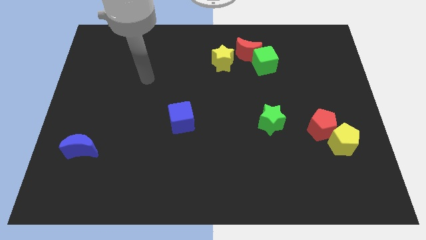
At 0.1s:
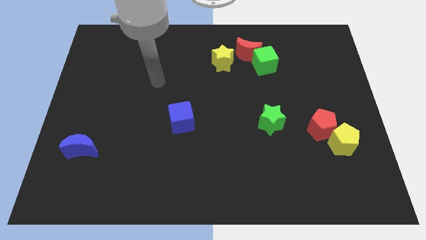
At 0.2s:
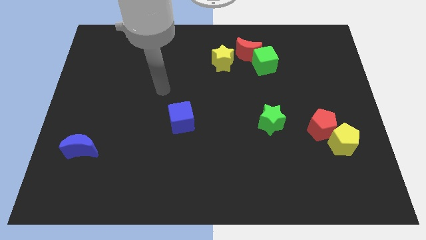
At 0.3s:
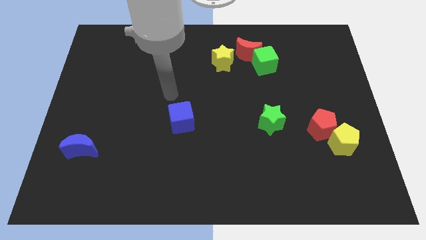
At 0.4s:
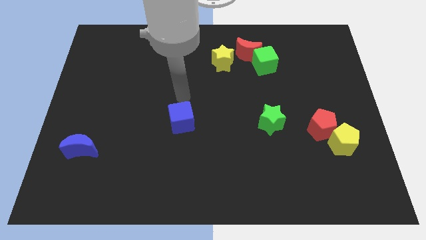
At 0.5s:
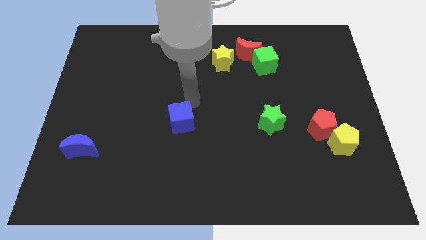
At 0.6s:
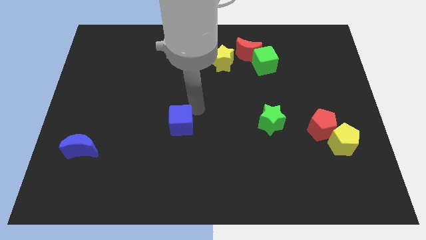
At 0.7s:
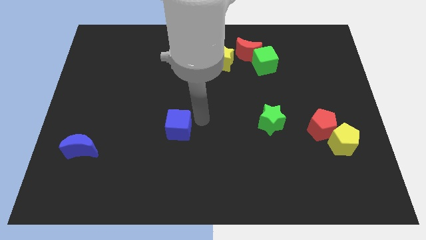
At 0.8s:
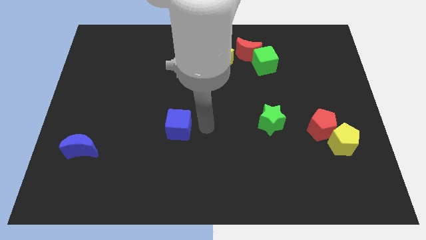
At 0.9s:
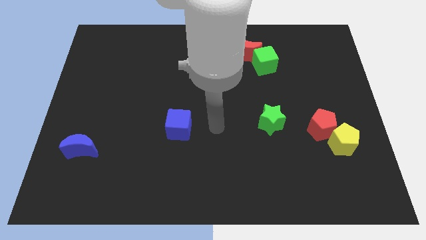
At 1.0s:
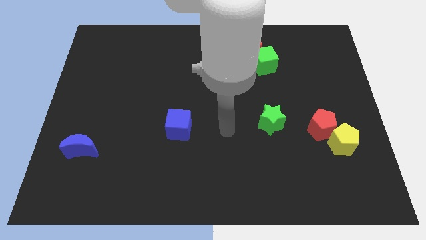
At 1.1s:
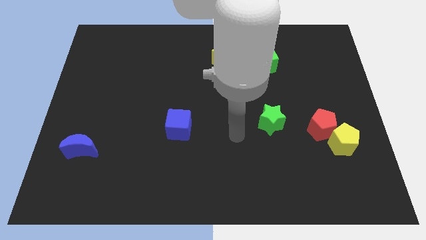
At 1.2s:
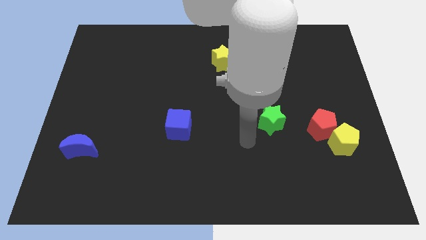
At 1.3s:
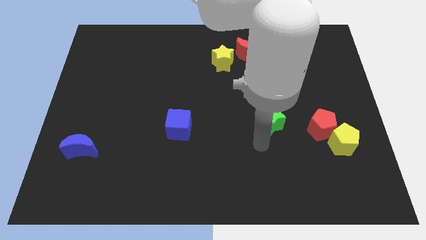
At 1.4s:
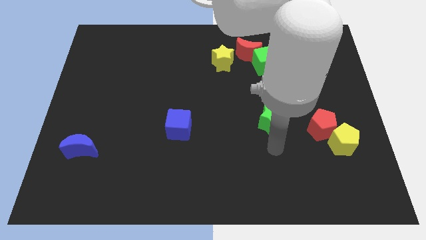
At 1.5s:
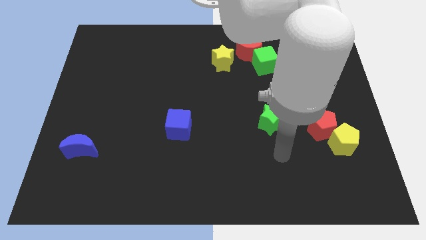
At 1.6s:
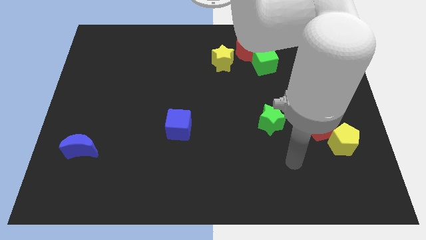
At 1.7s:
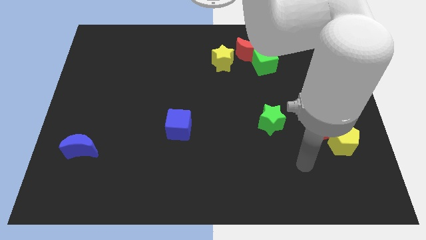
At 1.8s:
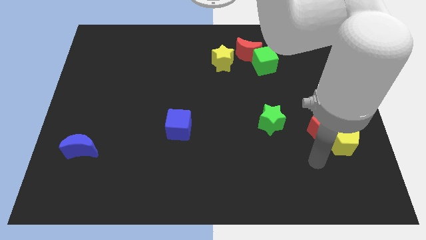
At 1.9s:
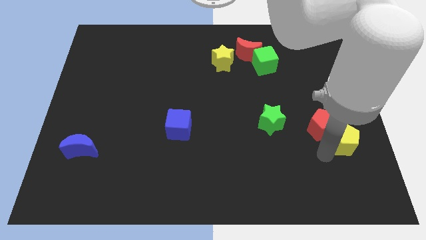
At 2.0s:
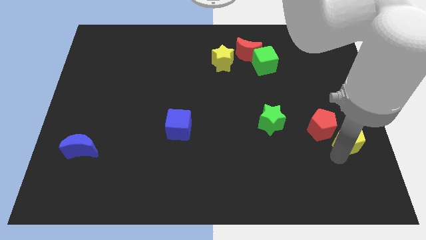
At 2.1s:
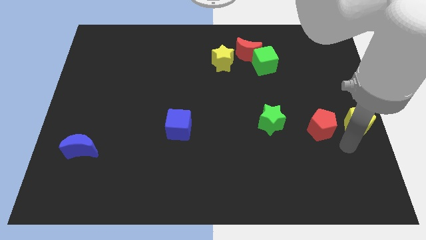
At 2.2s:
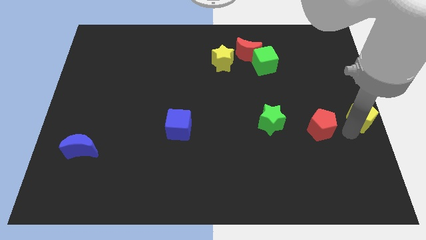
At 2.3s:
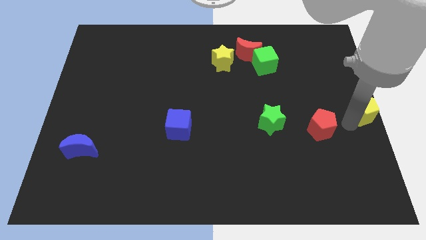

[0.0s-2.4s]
separate the red pentagon from the yellow pentagon

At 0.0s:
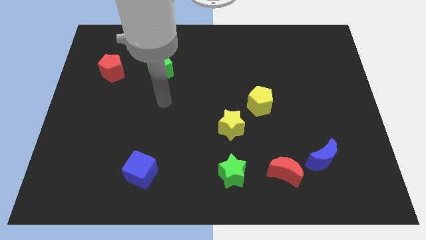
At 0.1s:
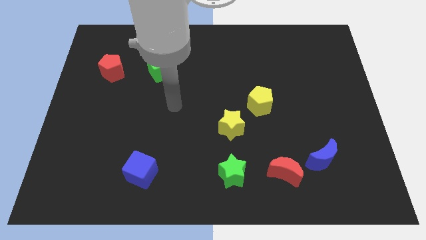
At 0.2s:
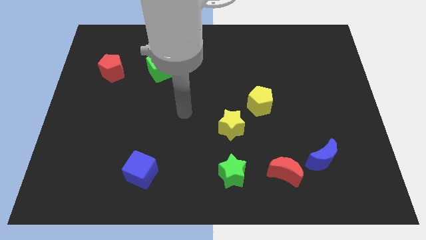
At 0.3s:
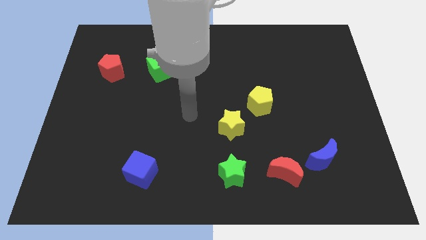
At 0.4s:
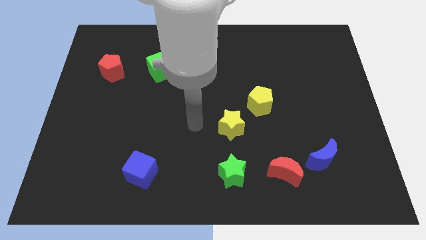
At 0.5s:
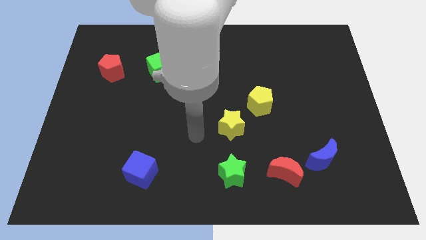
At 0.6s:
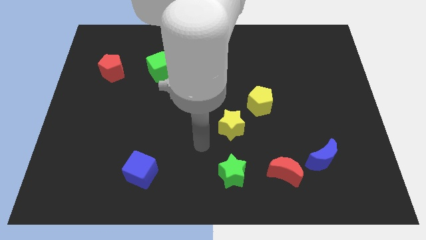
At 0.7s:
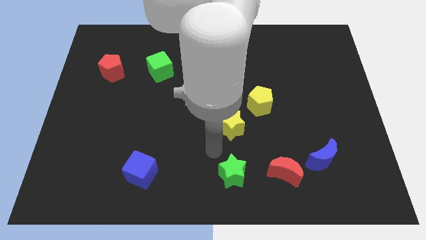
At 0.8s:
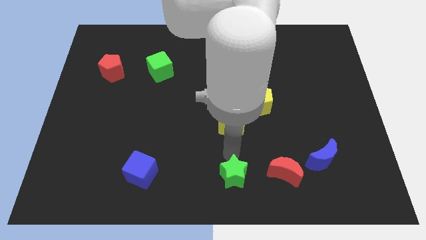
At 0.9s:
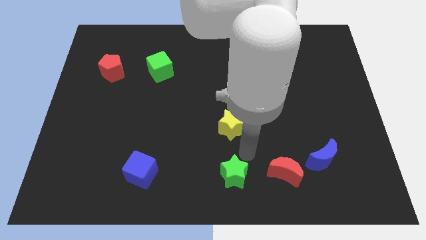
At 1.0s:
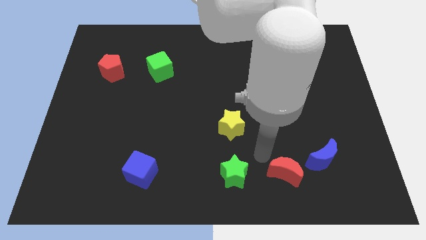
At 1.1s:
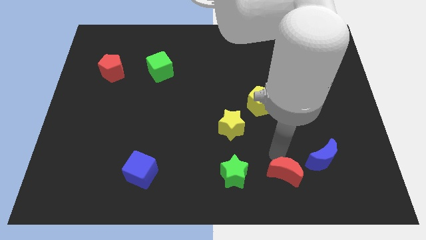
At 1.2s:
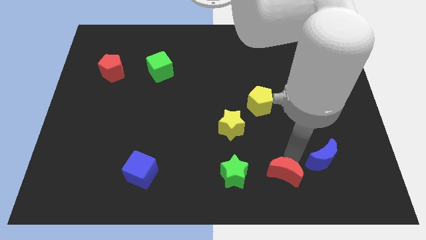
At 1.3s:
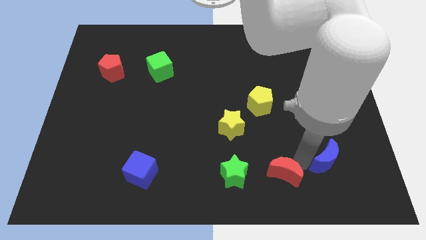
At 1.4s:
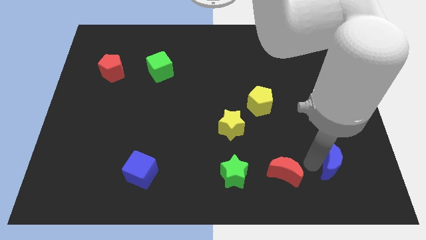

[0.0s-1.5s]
move the red moon away from the blue moon

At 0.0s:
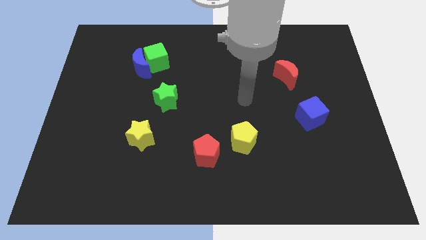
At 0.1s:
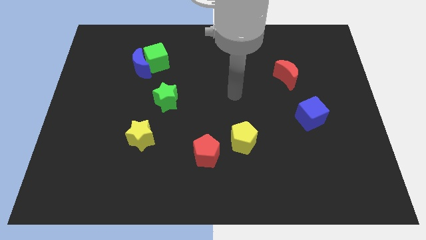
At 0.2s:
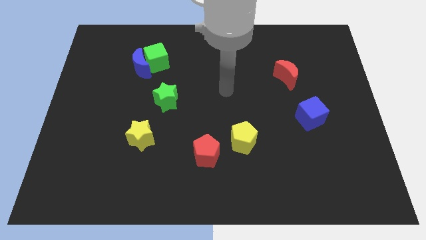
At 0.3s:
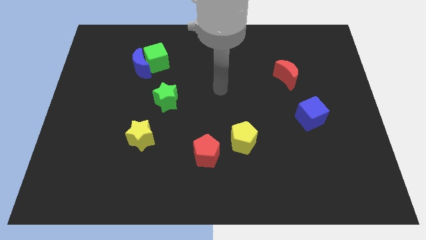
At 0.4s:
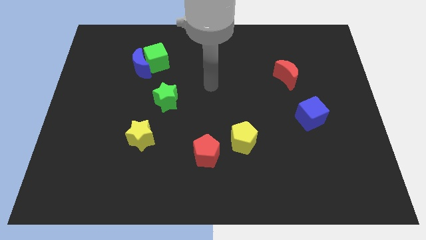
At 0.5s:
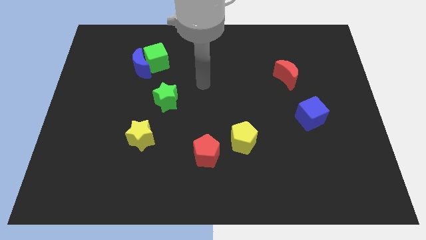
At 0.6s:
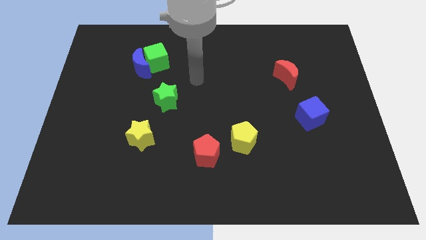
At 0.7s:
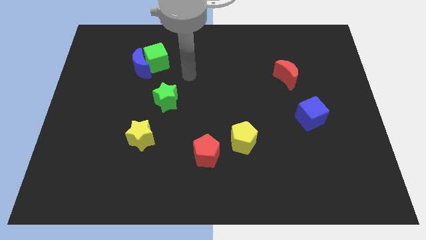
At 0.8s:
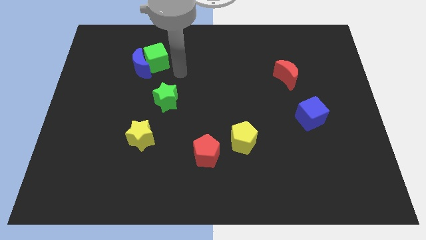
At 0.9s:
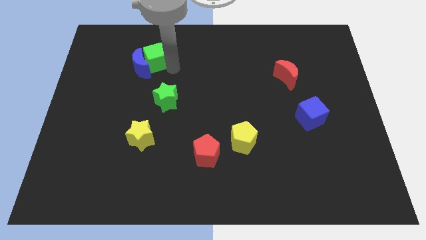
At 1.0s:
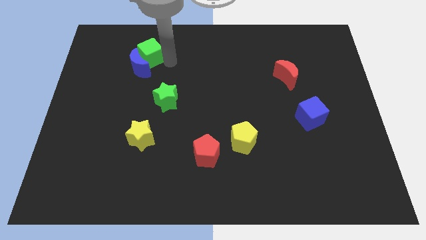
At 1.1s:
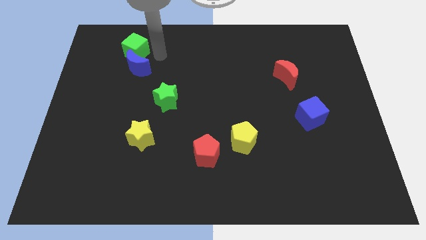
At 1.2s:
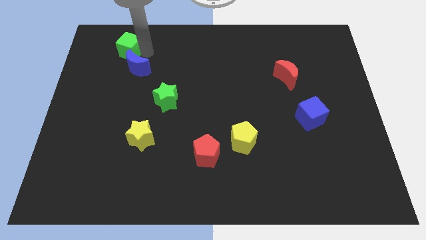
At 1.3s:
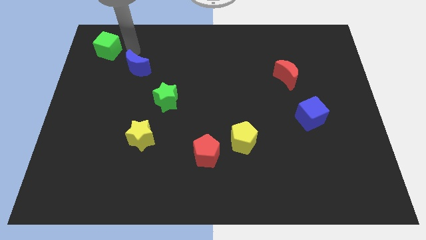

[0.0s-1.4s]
pull the blue moon apart from the green cube

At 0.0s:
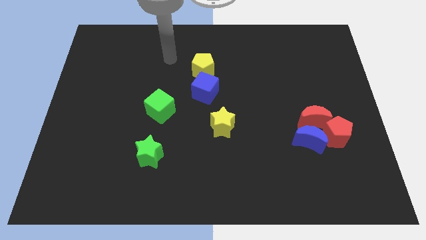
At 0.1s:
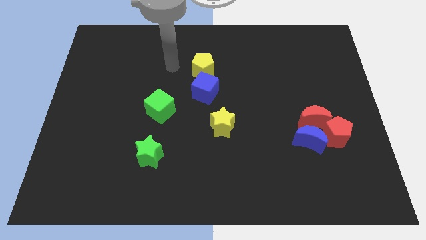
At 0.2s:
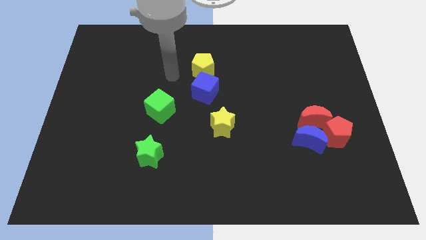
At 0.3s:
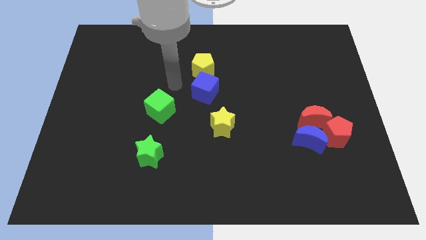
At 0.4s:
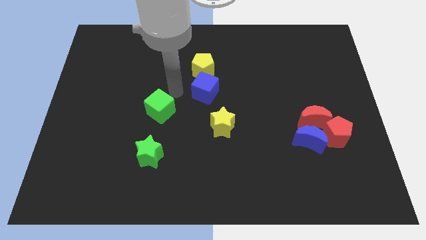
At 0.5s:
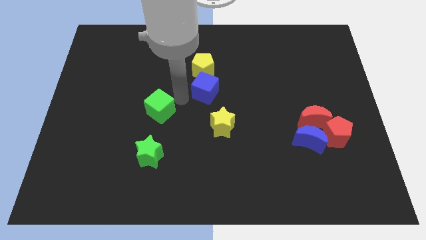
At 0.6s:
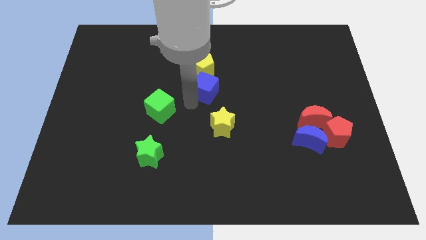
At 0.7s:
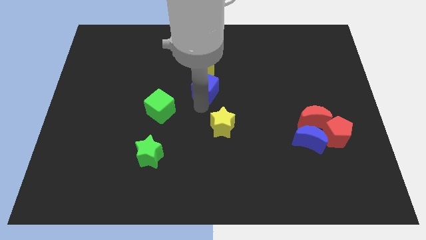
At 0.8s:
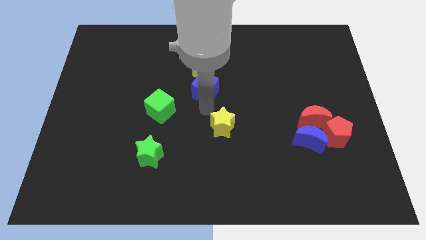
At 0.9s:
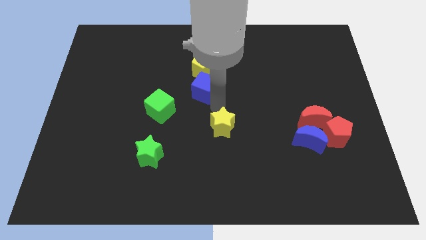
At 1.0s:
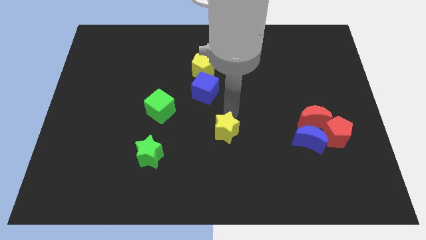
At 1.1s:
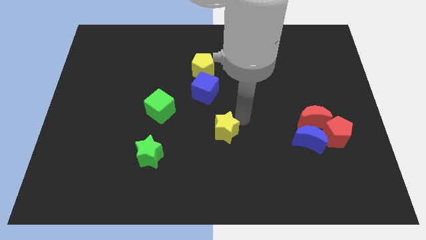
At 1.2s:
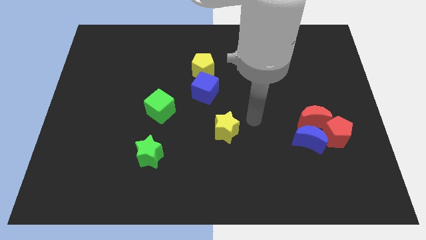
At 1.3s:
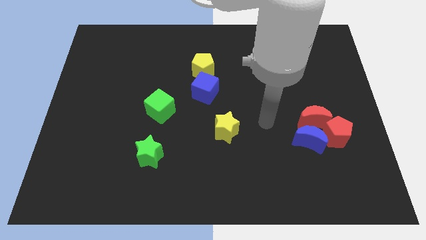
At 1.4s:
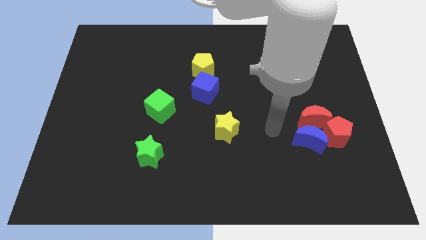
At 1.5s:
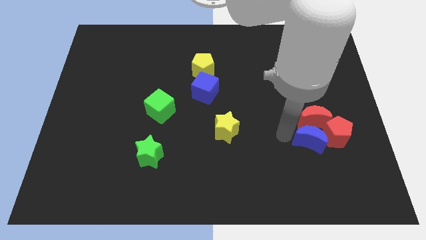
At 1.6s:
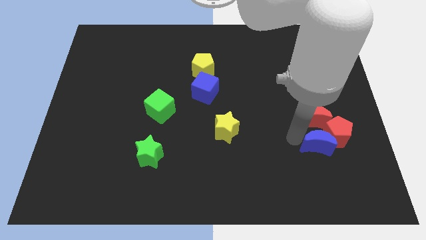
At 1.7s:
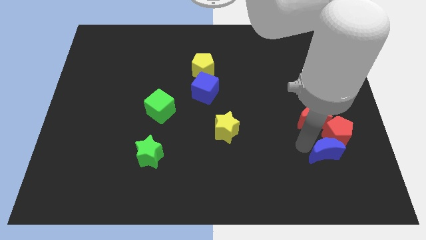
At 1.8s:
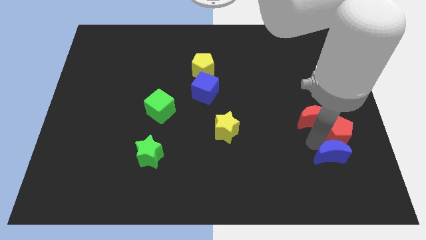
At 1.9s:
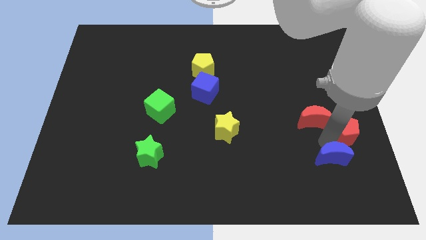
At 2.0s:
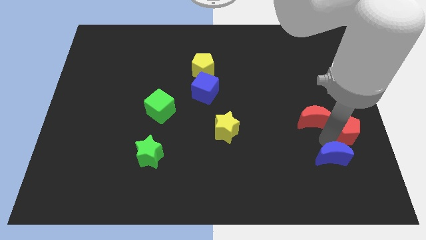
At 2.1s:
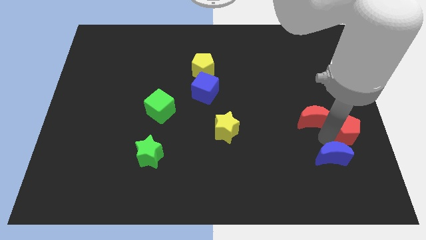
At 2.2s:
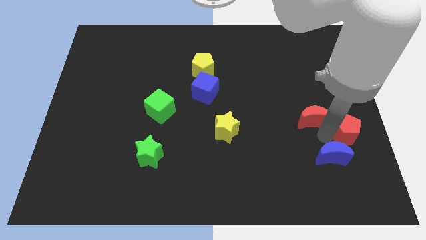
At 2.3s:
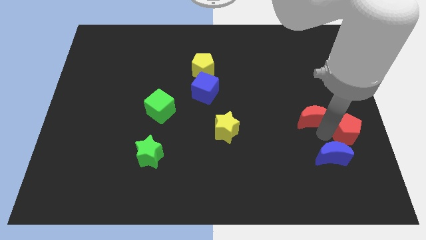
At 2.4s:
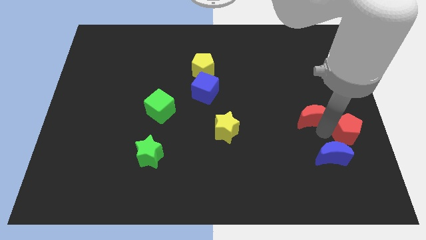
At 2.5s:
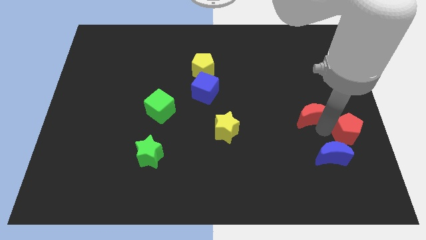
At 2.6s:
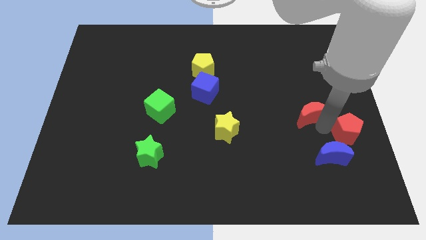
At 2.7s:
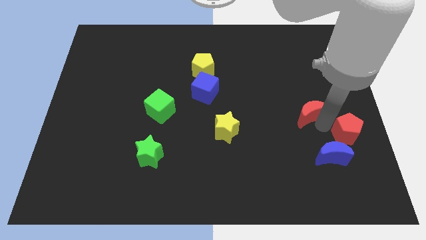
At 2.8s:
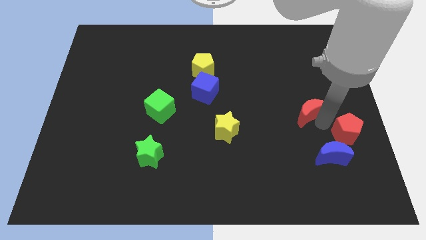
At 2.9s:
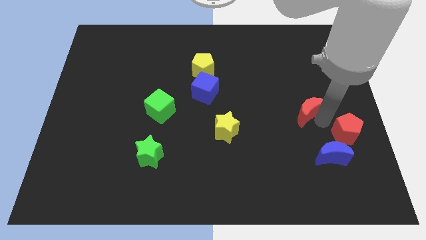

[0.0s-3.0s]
separate the red moon from the blue moon and red pentagon

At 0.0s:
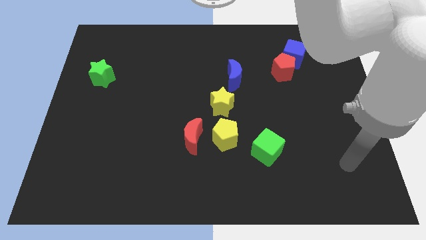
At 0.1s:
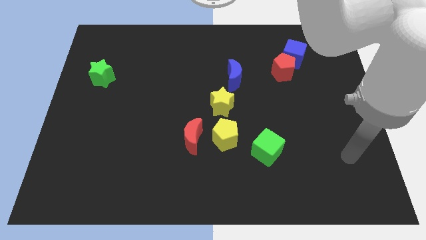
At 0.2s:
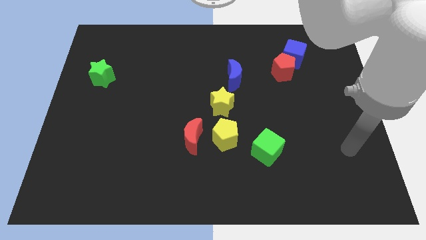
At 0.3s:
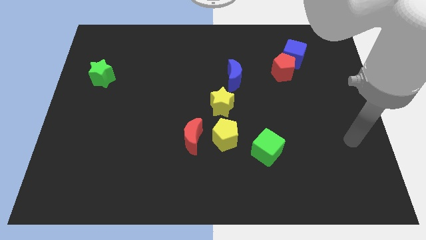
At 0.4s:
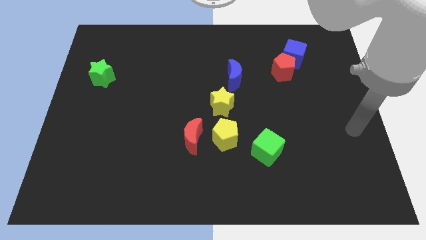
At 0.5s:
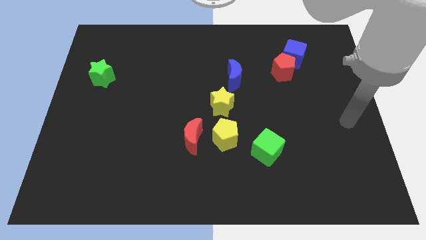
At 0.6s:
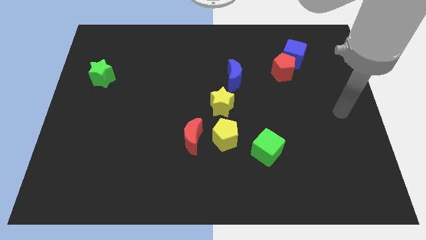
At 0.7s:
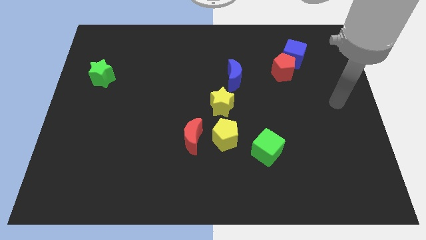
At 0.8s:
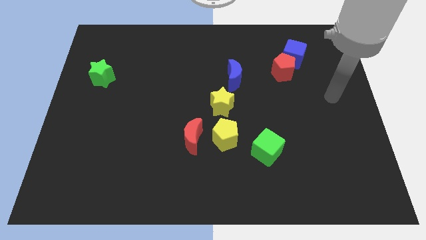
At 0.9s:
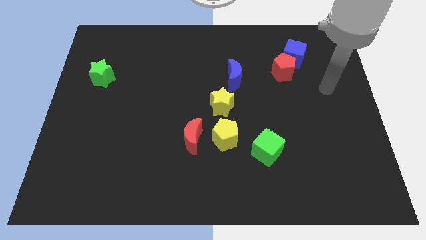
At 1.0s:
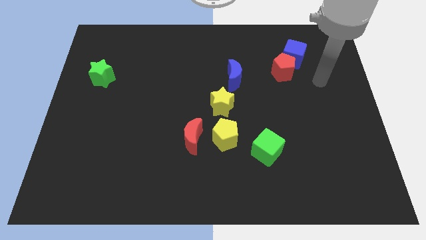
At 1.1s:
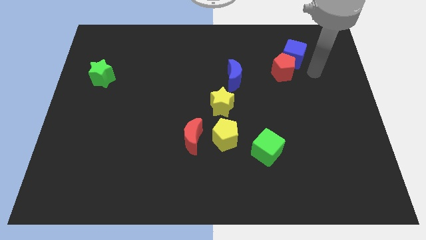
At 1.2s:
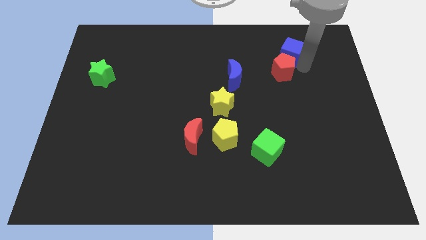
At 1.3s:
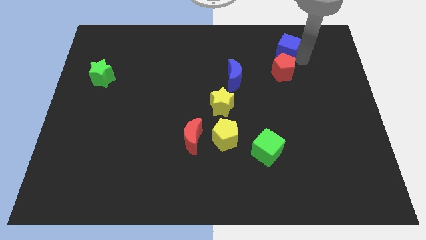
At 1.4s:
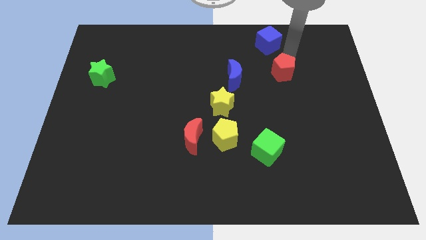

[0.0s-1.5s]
move the red pentagon away from the blue cube
